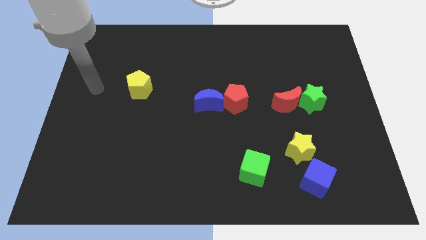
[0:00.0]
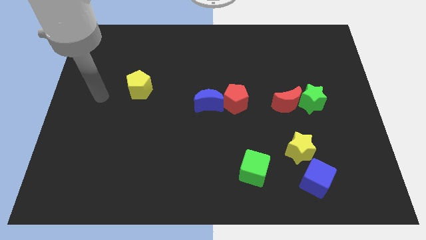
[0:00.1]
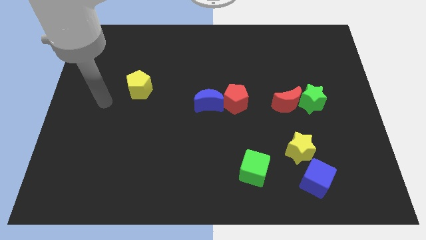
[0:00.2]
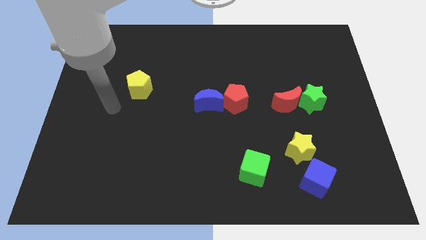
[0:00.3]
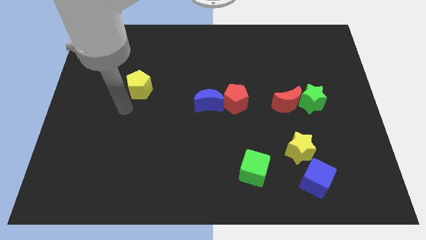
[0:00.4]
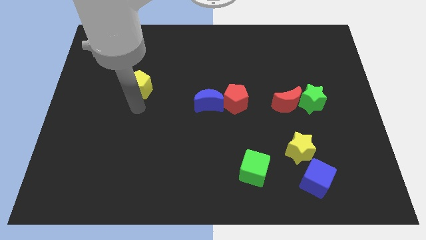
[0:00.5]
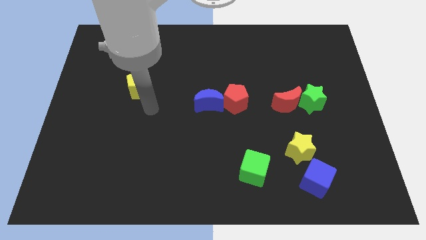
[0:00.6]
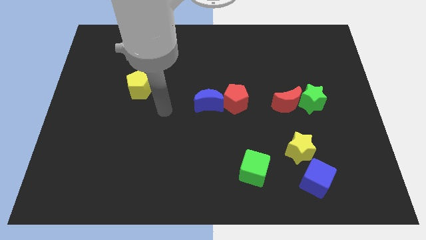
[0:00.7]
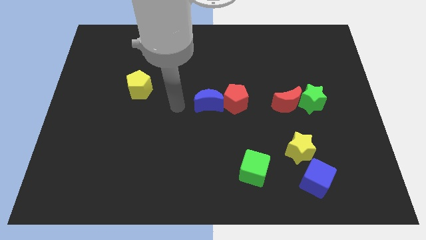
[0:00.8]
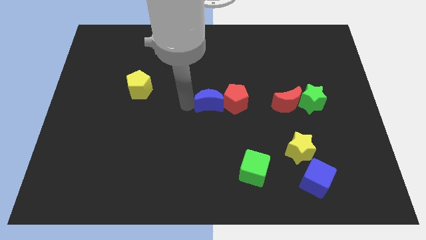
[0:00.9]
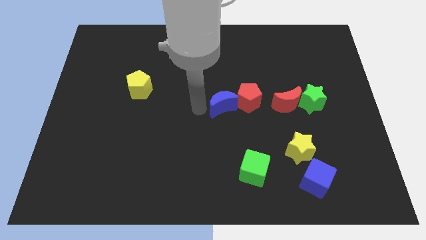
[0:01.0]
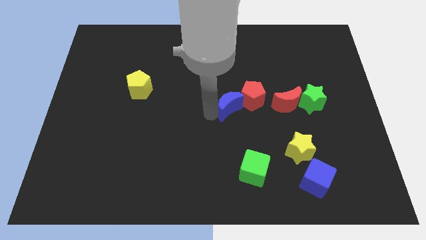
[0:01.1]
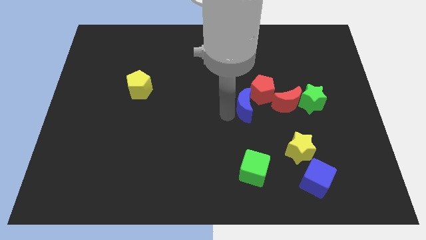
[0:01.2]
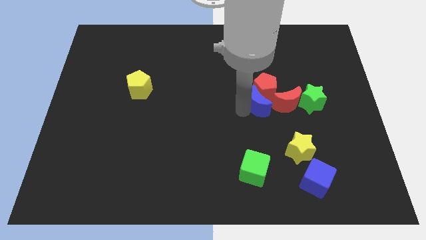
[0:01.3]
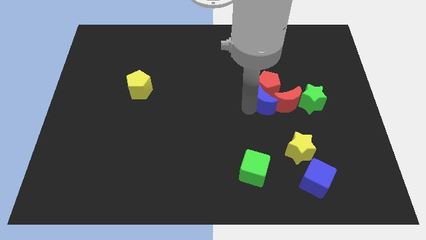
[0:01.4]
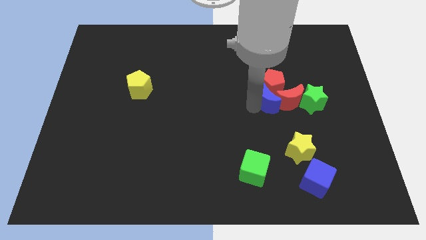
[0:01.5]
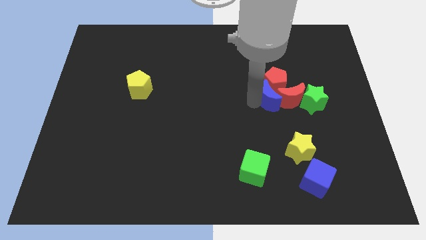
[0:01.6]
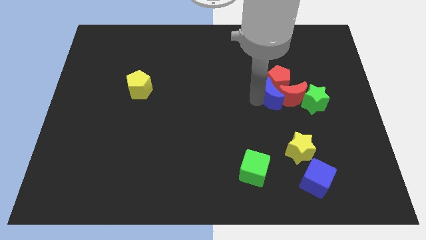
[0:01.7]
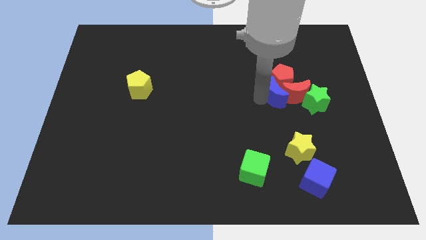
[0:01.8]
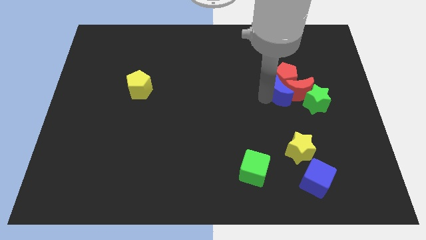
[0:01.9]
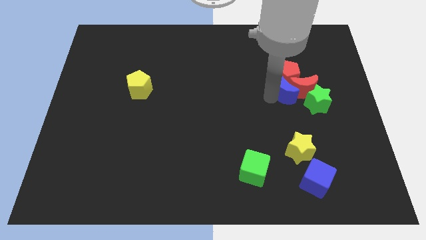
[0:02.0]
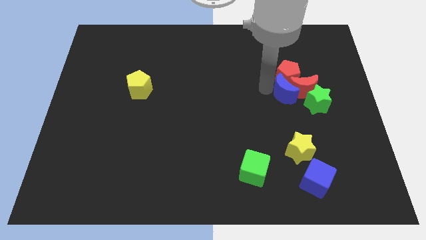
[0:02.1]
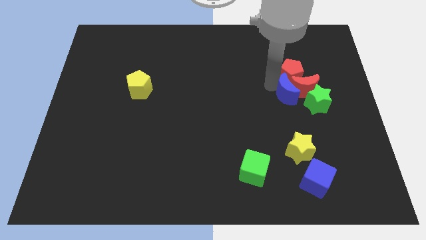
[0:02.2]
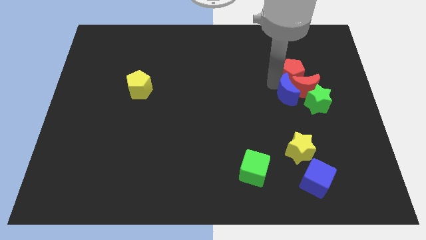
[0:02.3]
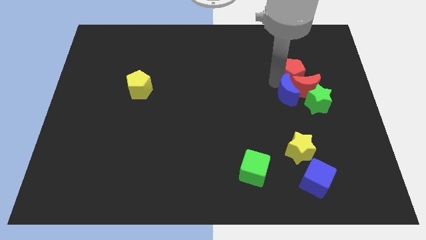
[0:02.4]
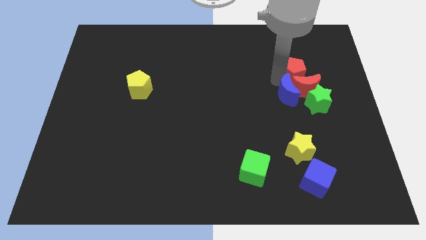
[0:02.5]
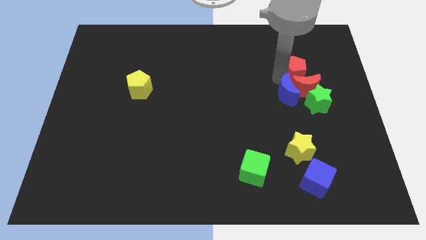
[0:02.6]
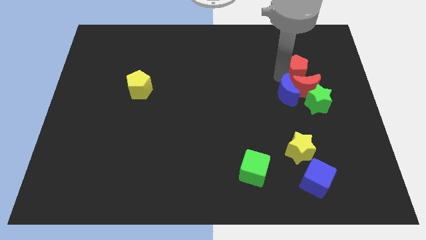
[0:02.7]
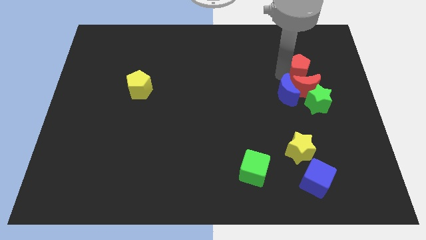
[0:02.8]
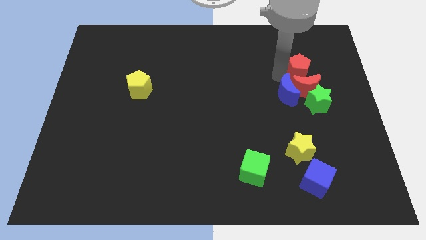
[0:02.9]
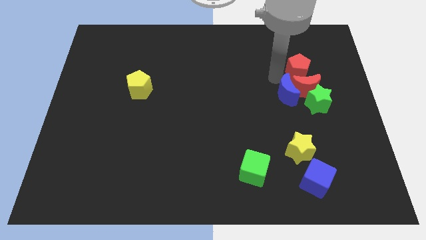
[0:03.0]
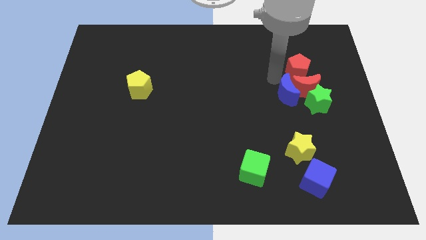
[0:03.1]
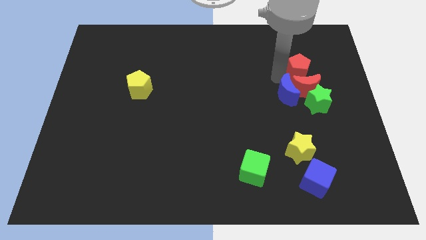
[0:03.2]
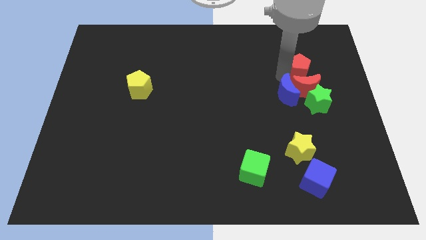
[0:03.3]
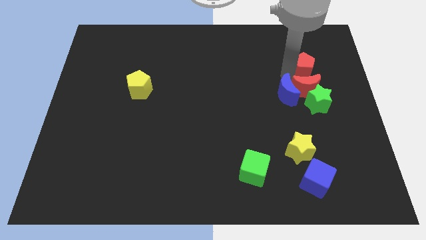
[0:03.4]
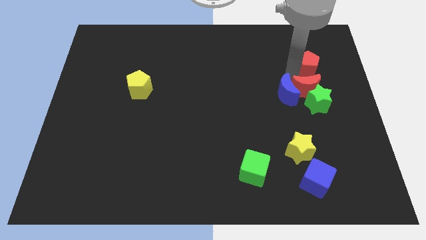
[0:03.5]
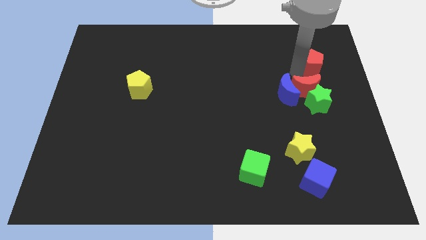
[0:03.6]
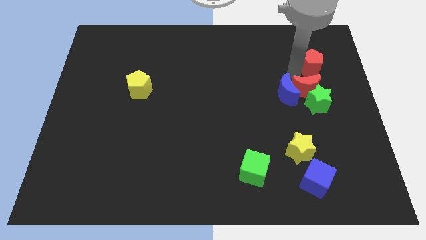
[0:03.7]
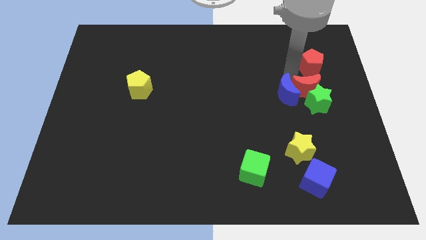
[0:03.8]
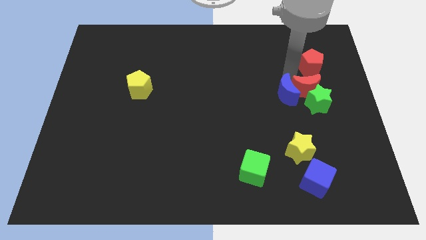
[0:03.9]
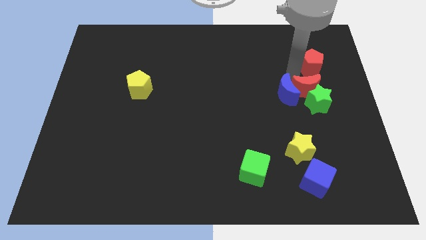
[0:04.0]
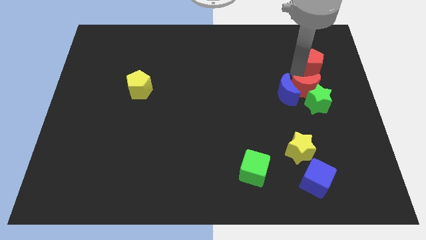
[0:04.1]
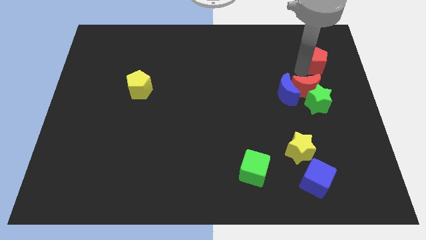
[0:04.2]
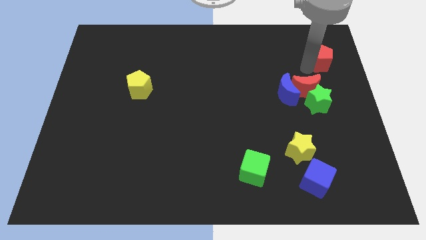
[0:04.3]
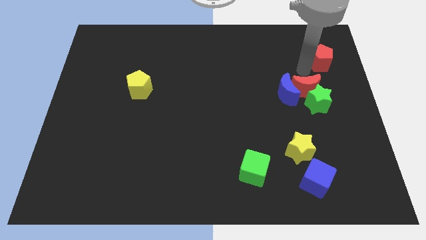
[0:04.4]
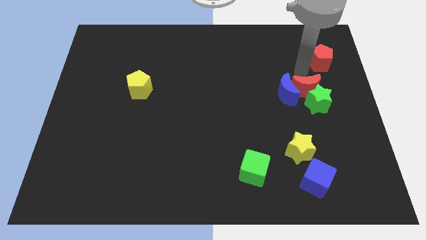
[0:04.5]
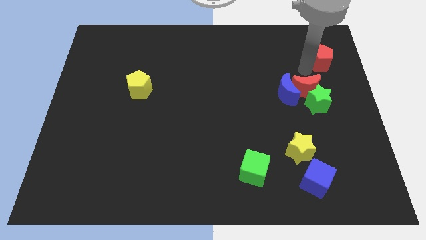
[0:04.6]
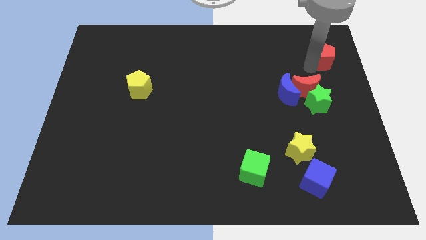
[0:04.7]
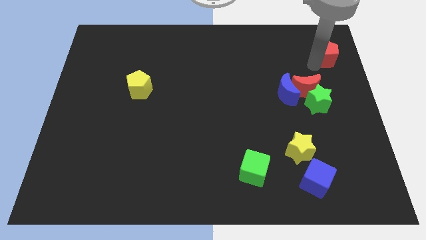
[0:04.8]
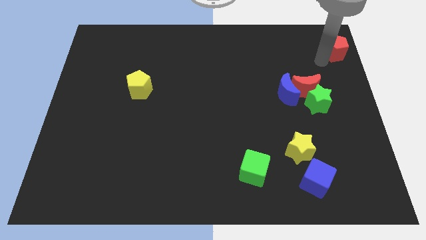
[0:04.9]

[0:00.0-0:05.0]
move the red pentagon to the top right of the board

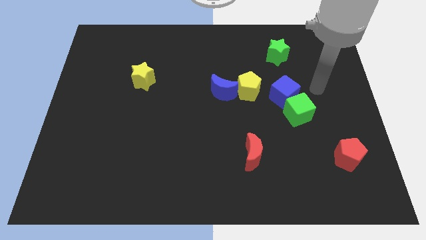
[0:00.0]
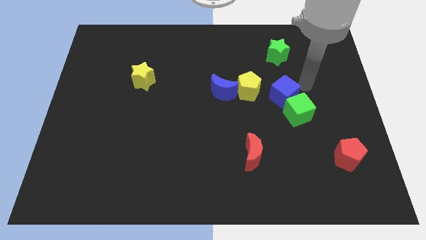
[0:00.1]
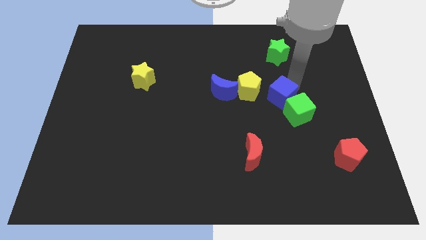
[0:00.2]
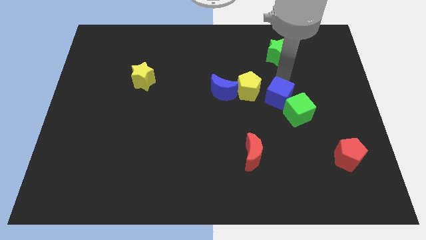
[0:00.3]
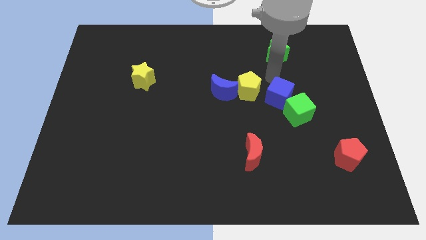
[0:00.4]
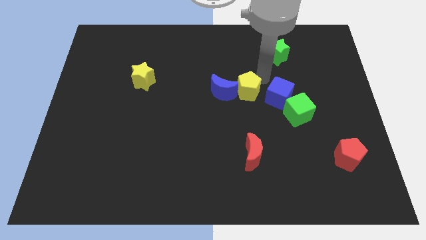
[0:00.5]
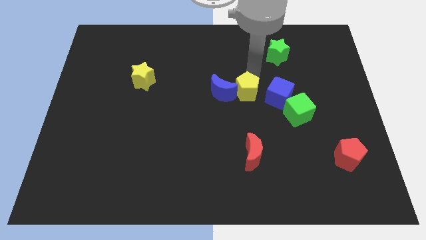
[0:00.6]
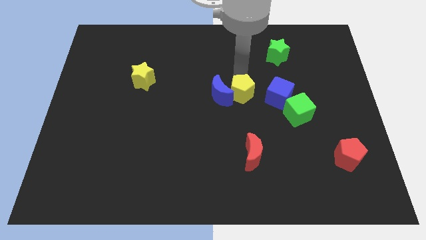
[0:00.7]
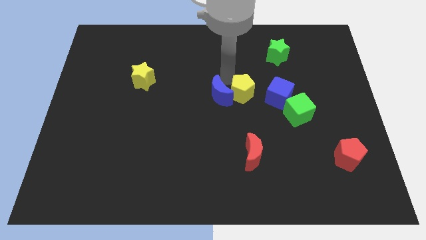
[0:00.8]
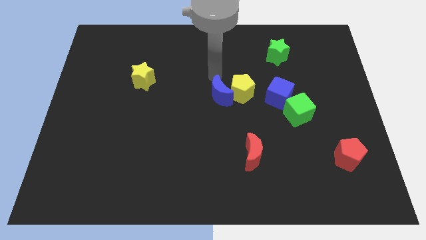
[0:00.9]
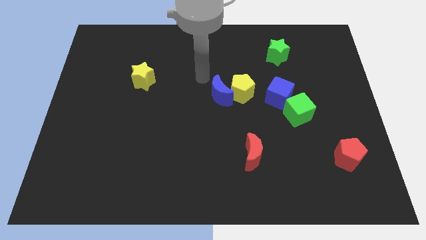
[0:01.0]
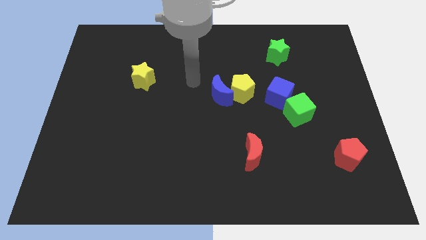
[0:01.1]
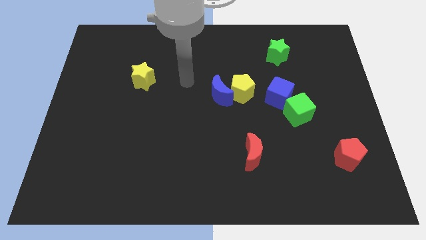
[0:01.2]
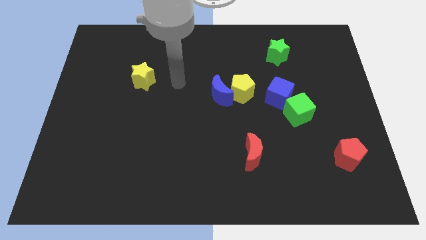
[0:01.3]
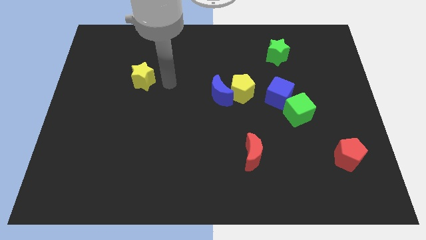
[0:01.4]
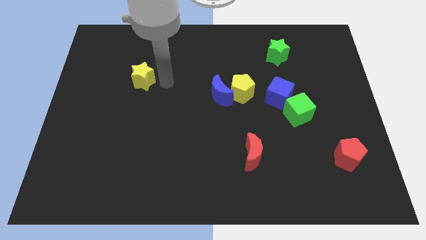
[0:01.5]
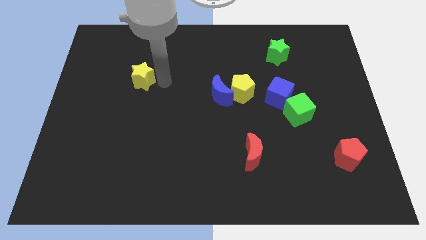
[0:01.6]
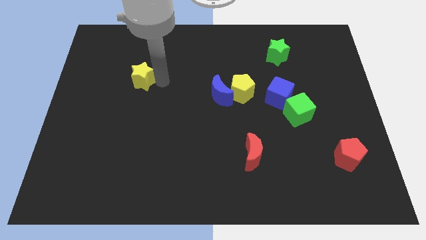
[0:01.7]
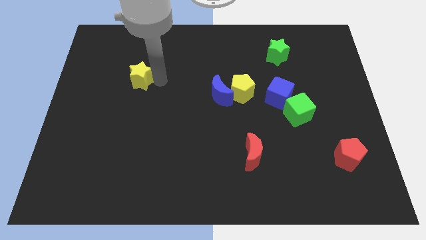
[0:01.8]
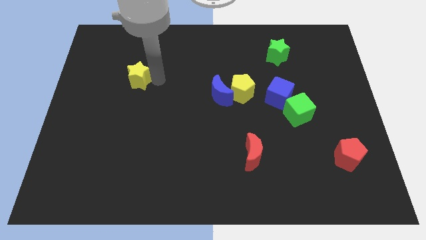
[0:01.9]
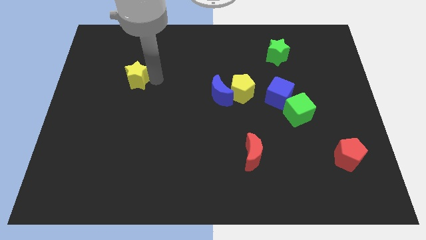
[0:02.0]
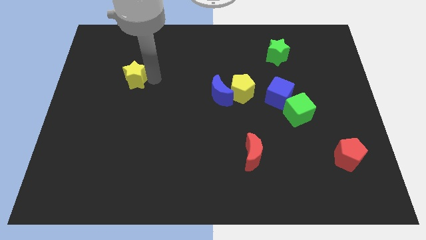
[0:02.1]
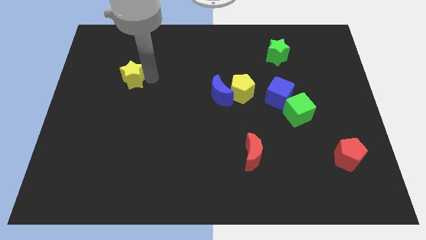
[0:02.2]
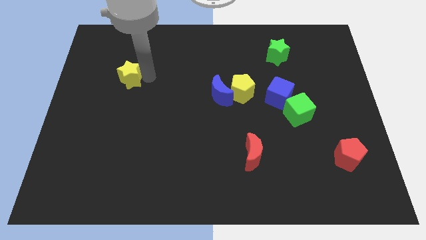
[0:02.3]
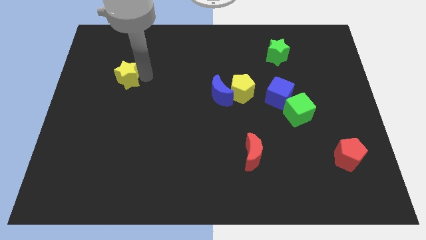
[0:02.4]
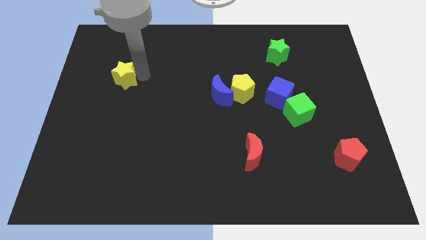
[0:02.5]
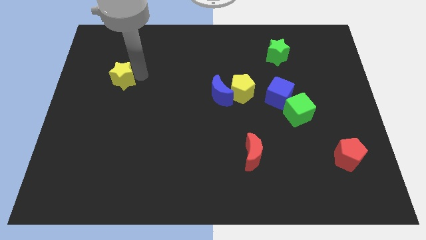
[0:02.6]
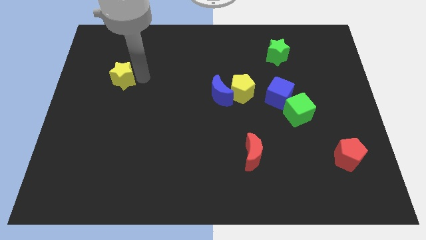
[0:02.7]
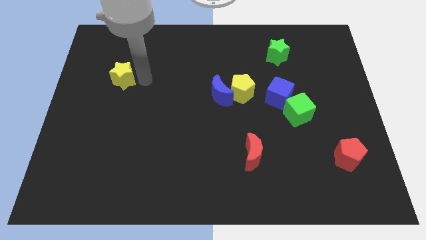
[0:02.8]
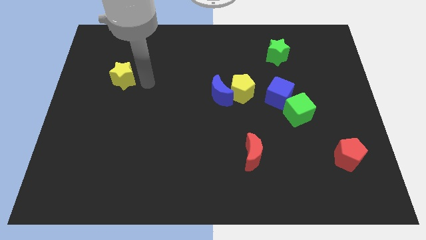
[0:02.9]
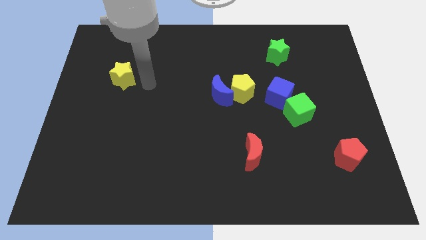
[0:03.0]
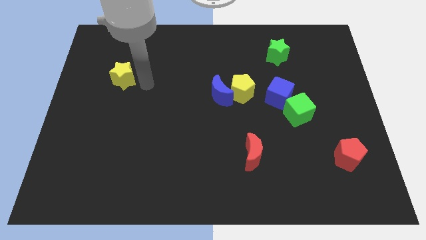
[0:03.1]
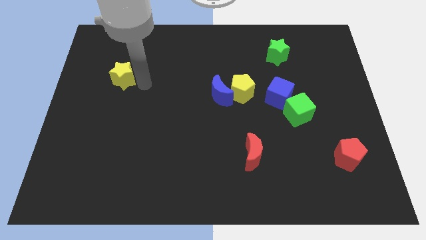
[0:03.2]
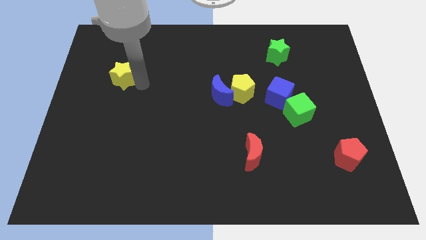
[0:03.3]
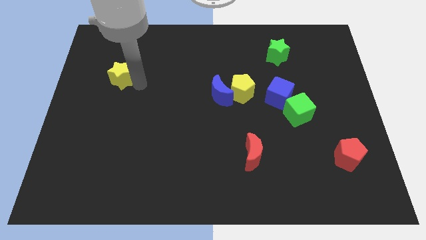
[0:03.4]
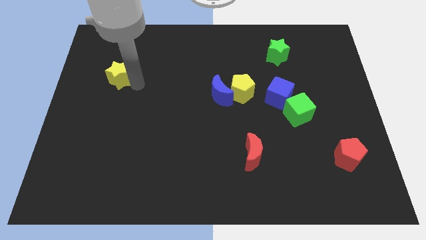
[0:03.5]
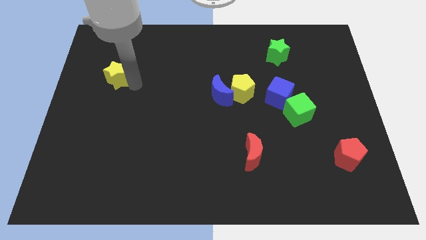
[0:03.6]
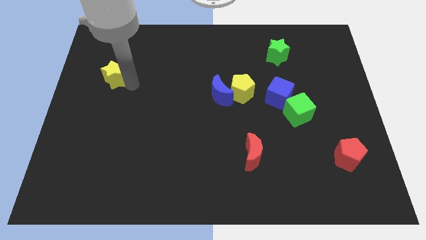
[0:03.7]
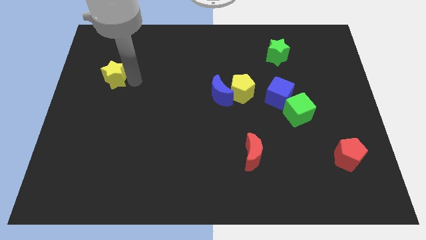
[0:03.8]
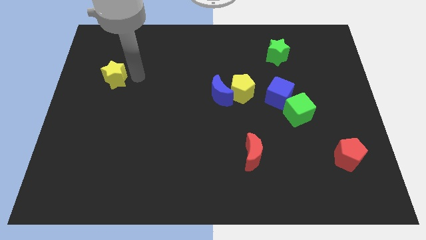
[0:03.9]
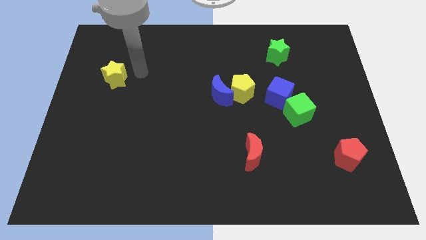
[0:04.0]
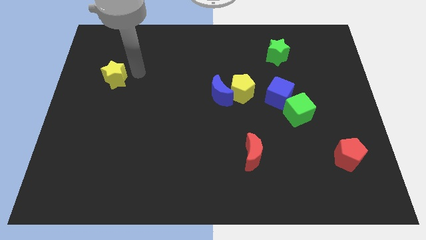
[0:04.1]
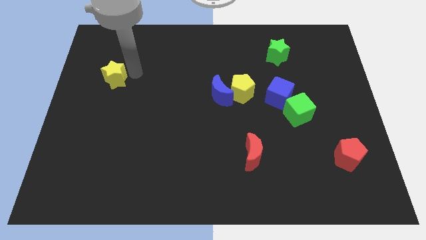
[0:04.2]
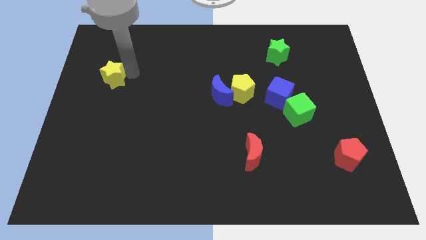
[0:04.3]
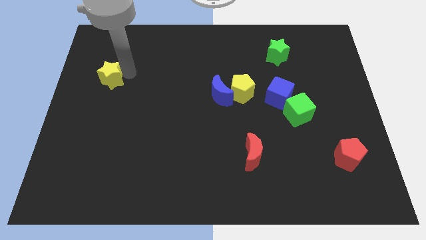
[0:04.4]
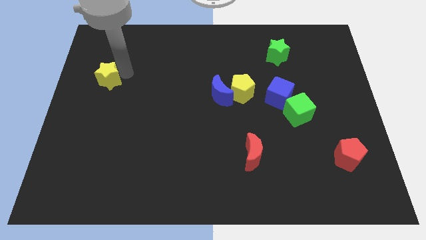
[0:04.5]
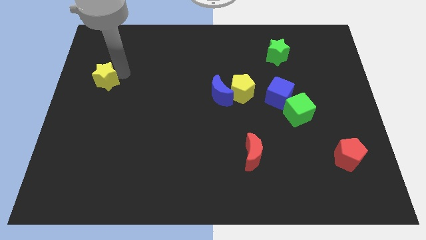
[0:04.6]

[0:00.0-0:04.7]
move the yellow star to the center left
